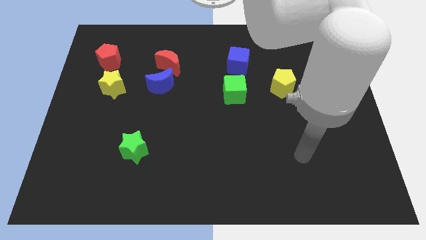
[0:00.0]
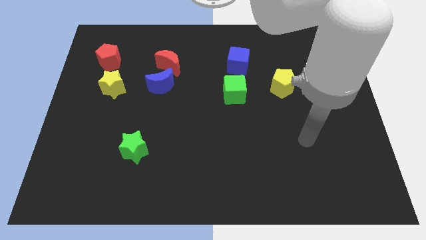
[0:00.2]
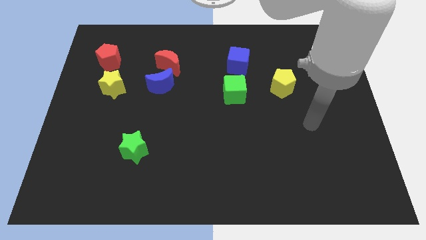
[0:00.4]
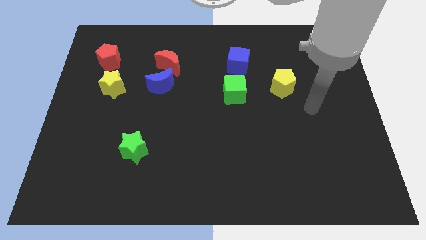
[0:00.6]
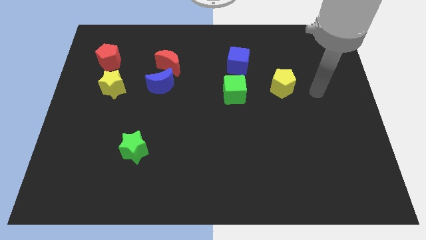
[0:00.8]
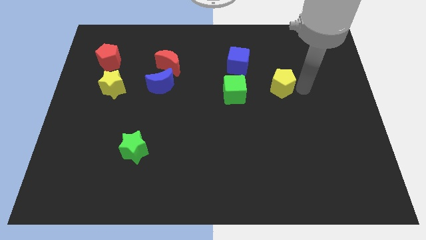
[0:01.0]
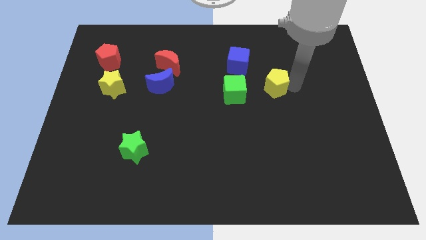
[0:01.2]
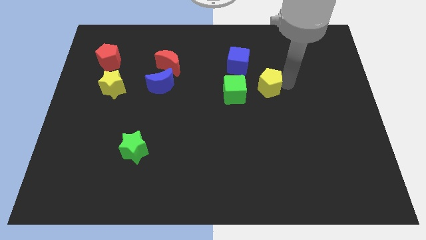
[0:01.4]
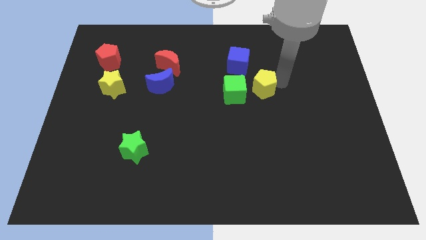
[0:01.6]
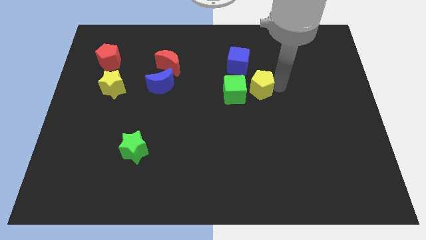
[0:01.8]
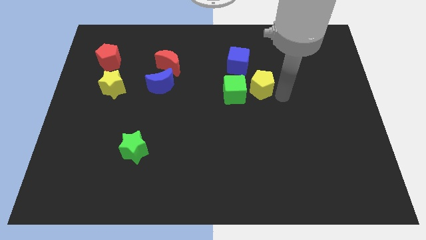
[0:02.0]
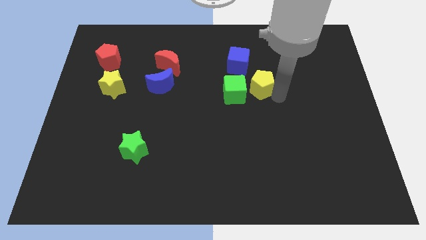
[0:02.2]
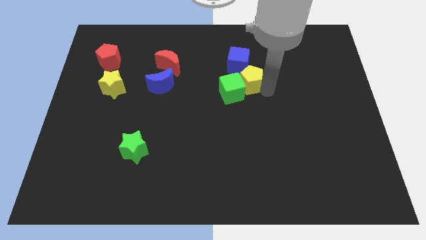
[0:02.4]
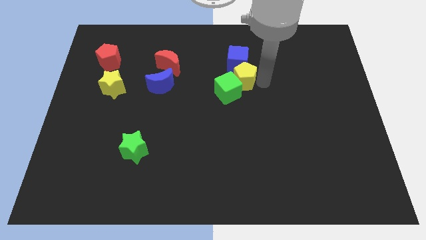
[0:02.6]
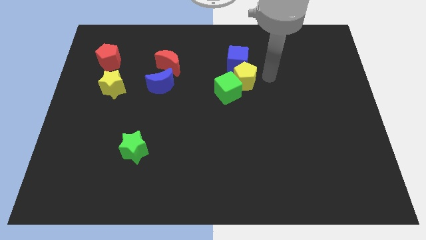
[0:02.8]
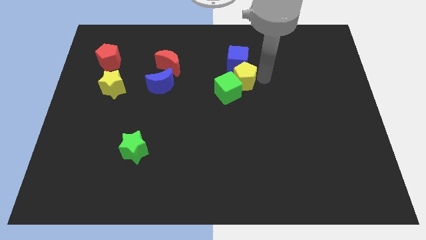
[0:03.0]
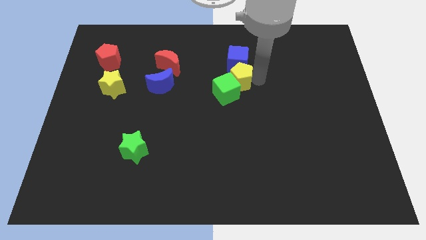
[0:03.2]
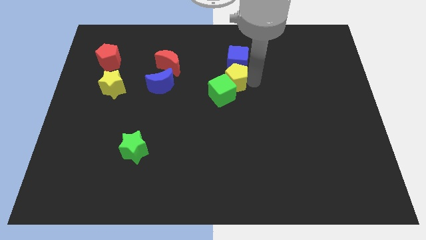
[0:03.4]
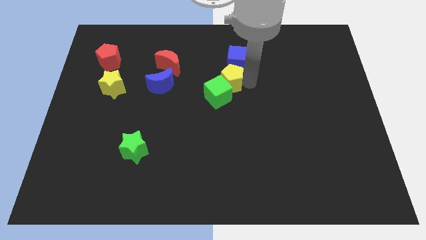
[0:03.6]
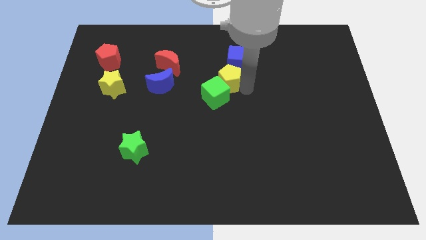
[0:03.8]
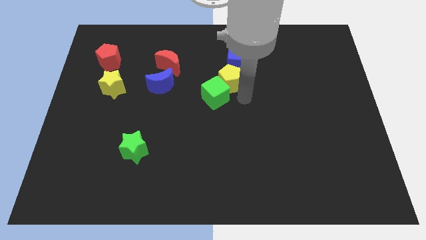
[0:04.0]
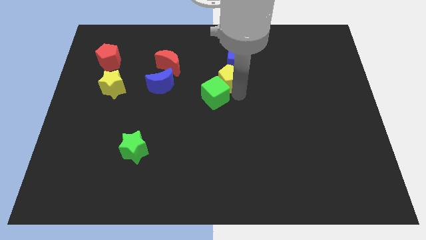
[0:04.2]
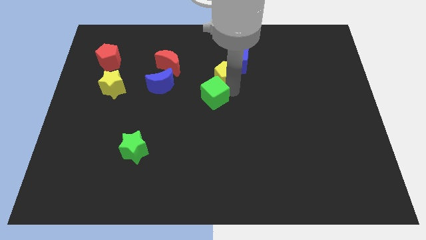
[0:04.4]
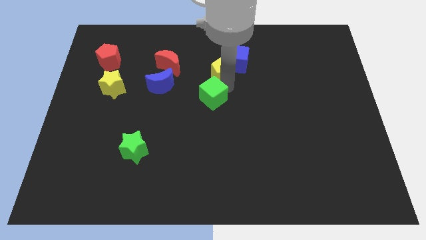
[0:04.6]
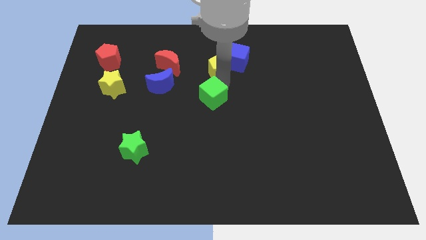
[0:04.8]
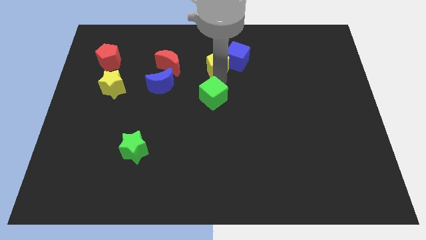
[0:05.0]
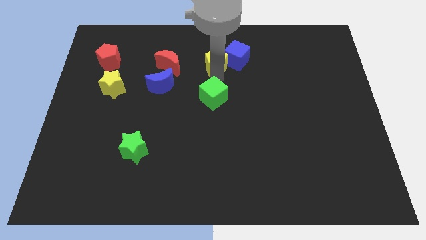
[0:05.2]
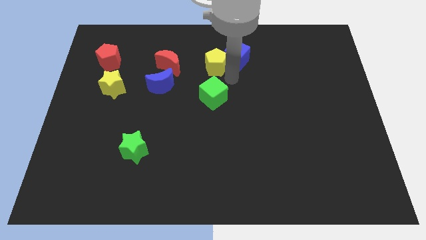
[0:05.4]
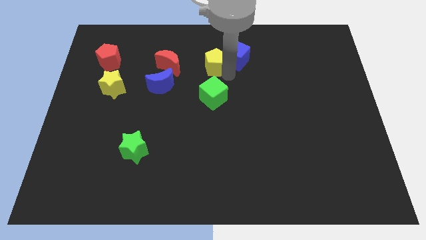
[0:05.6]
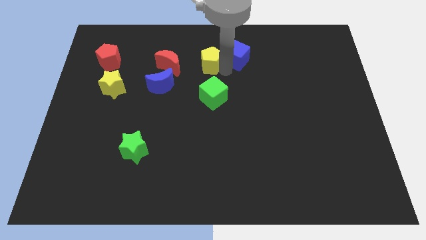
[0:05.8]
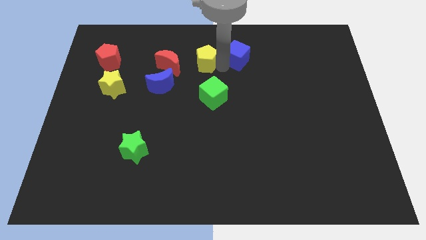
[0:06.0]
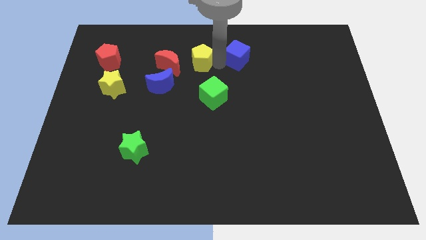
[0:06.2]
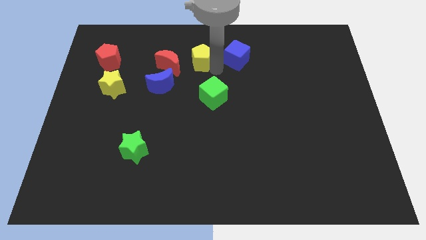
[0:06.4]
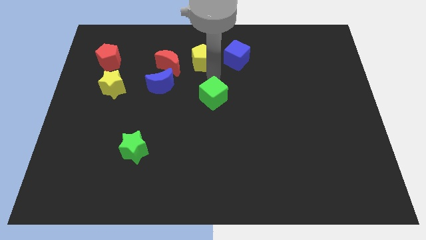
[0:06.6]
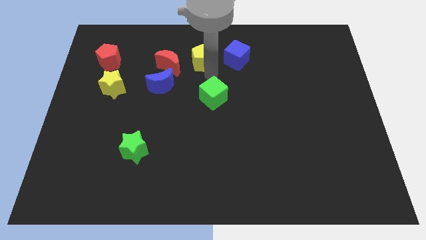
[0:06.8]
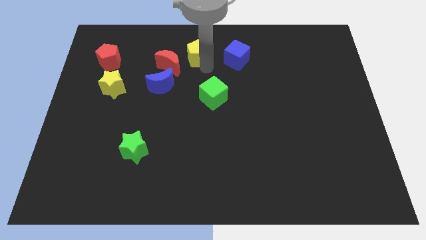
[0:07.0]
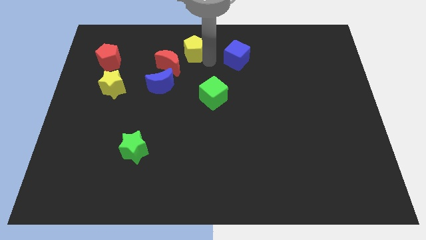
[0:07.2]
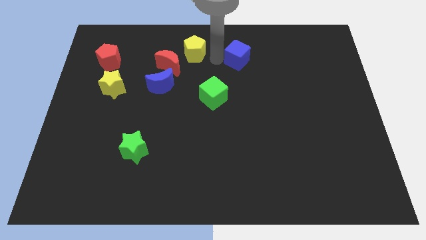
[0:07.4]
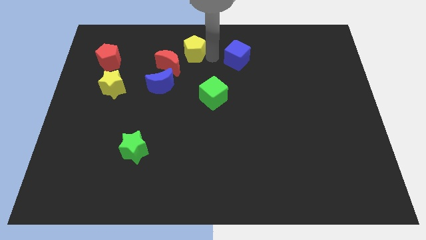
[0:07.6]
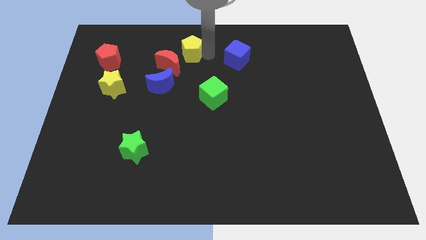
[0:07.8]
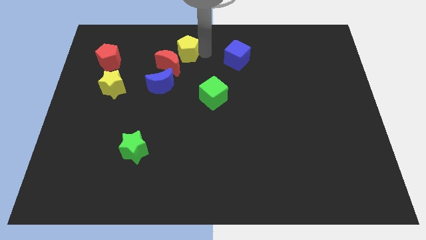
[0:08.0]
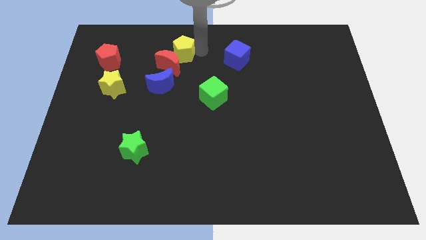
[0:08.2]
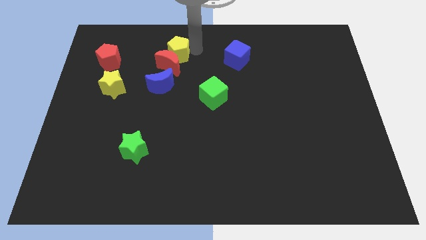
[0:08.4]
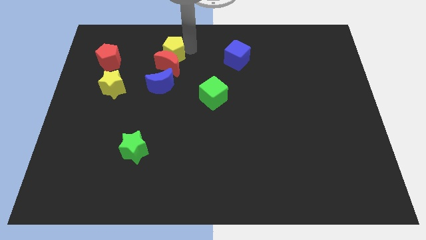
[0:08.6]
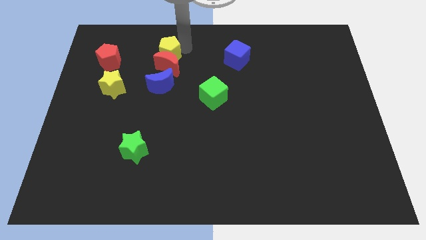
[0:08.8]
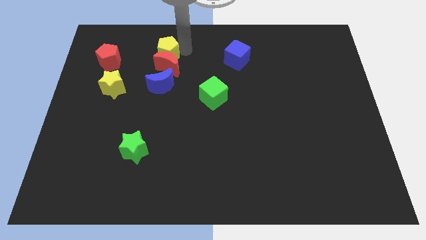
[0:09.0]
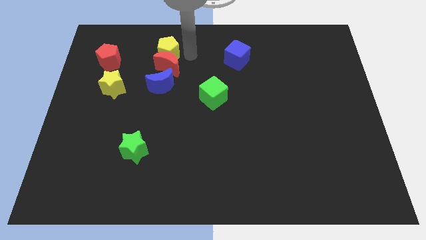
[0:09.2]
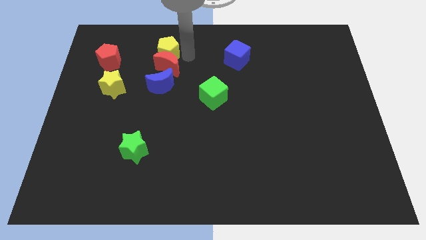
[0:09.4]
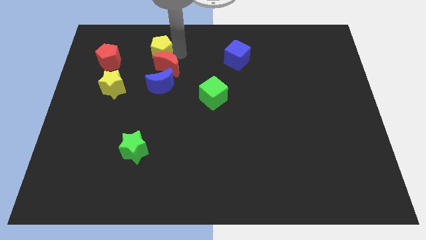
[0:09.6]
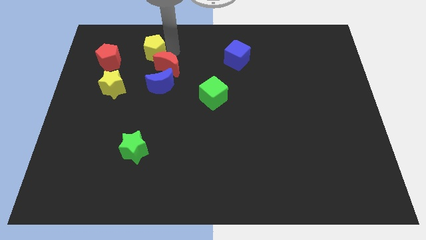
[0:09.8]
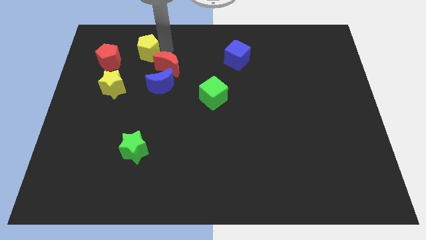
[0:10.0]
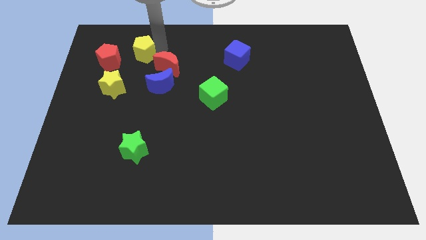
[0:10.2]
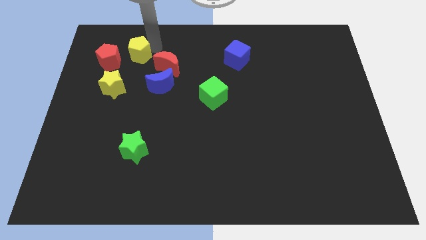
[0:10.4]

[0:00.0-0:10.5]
push the yellow pentagon above the yellow star

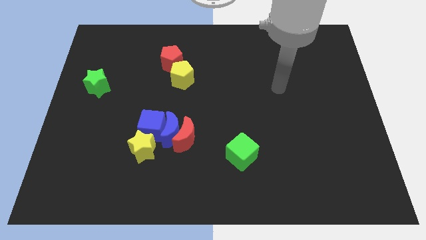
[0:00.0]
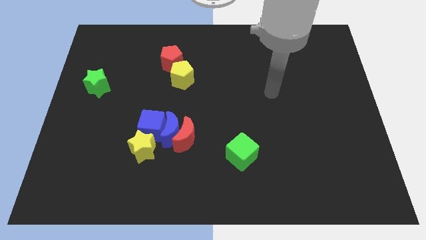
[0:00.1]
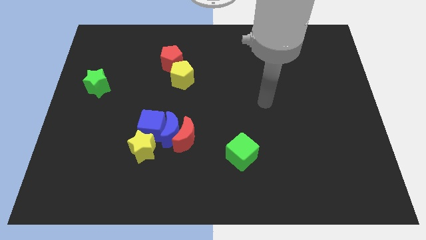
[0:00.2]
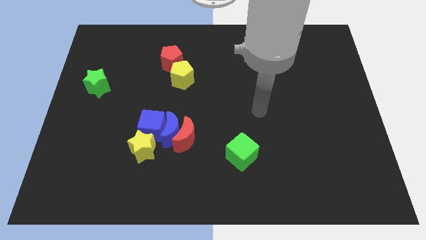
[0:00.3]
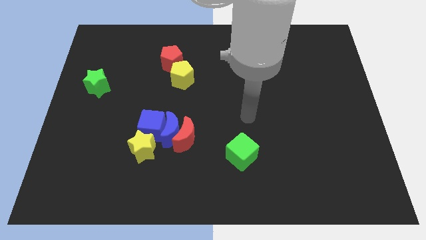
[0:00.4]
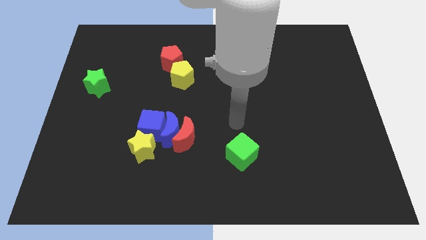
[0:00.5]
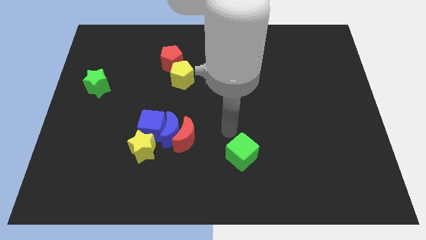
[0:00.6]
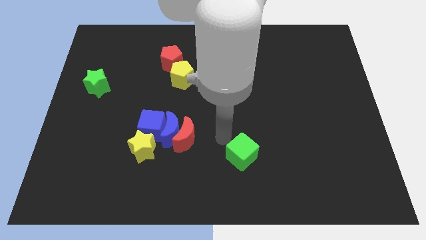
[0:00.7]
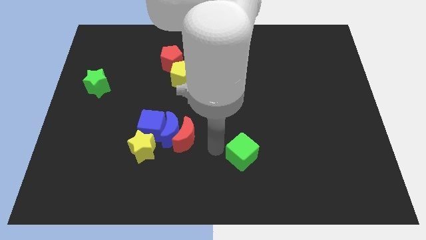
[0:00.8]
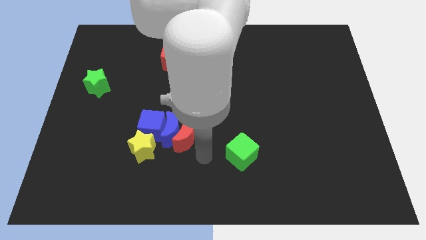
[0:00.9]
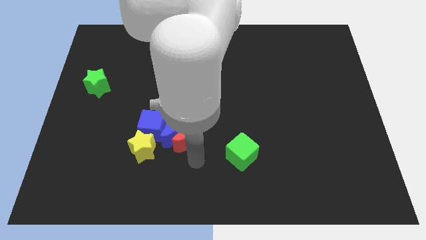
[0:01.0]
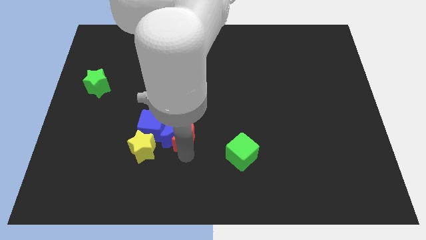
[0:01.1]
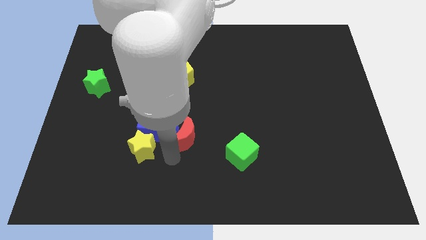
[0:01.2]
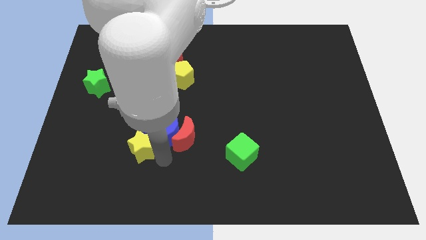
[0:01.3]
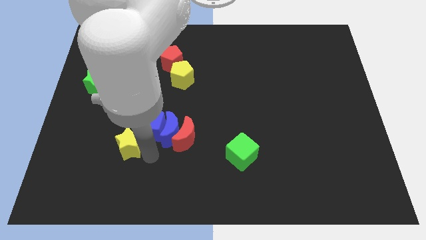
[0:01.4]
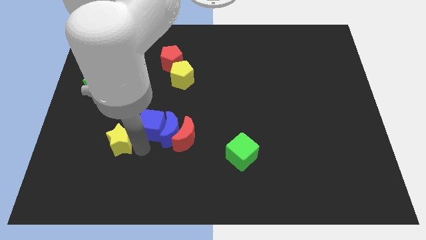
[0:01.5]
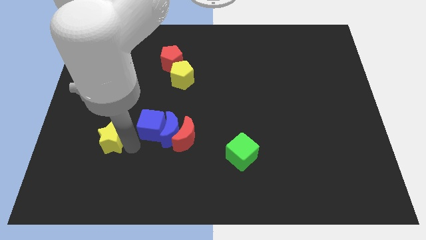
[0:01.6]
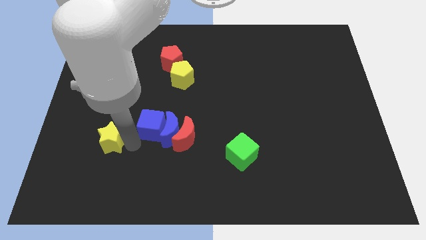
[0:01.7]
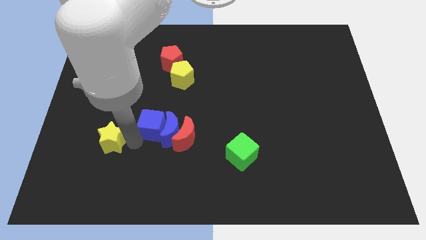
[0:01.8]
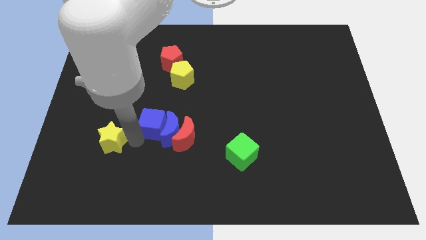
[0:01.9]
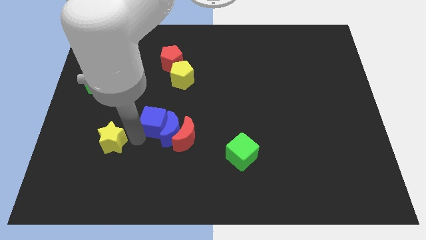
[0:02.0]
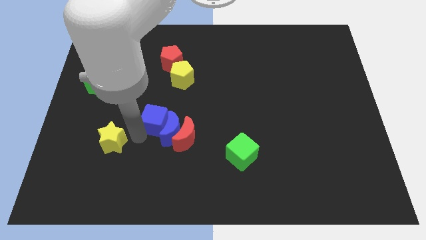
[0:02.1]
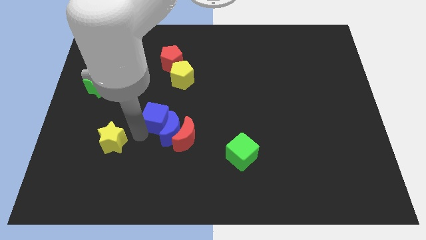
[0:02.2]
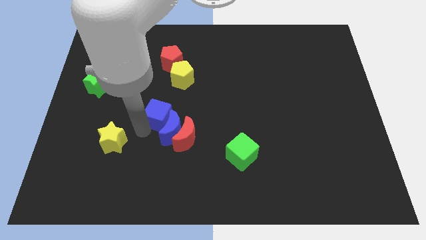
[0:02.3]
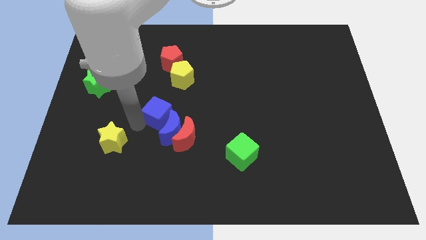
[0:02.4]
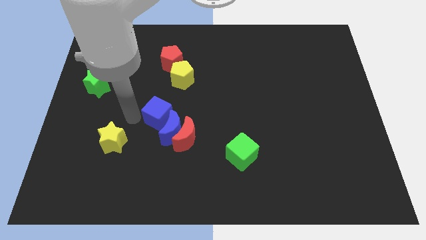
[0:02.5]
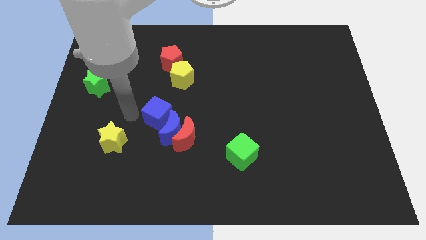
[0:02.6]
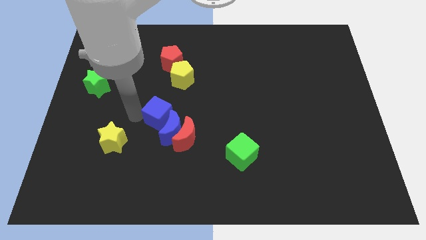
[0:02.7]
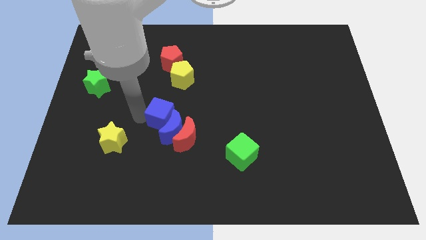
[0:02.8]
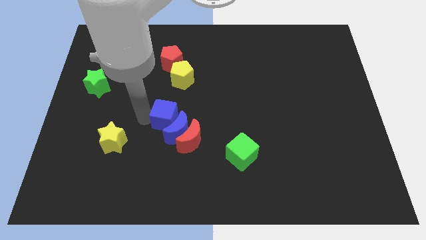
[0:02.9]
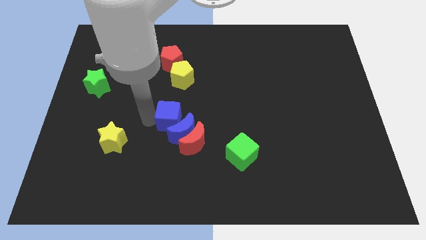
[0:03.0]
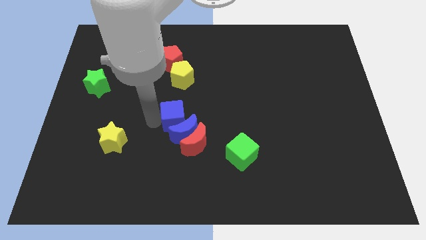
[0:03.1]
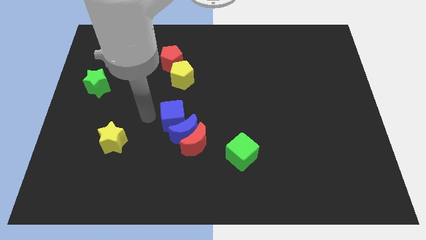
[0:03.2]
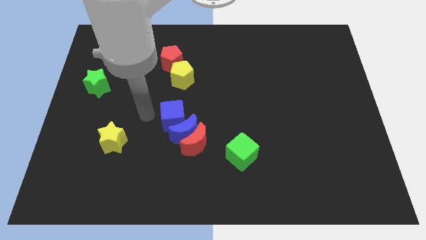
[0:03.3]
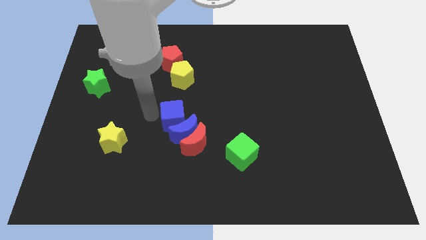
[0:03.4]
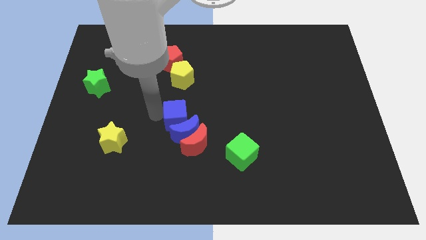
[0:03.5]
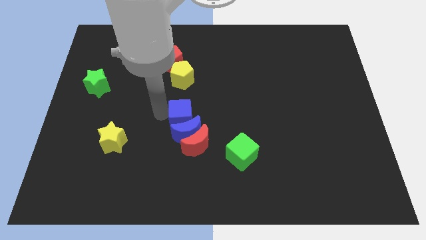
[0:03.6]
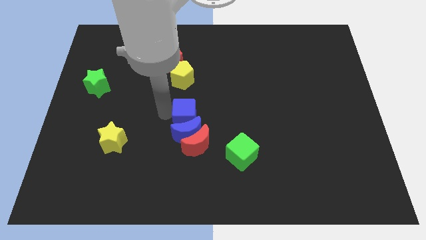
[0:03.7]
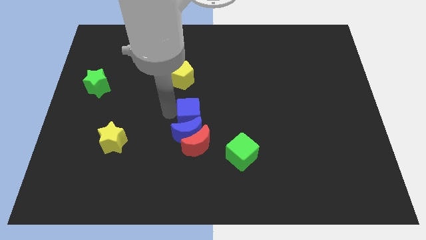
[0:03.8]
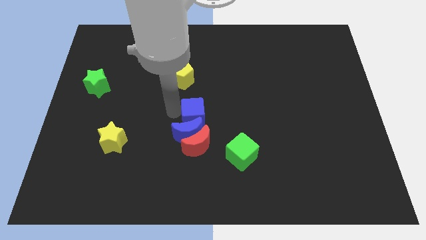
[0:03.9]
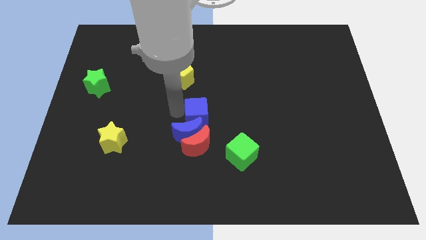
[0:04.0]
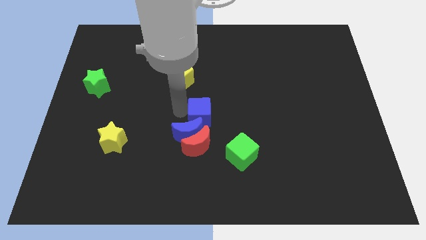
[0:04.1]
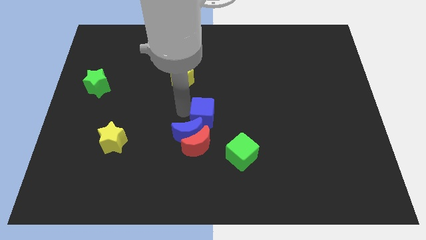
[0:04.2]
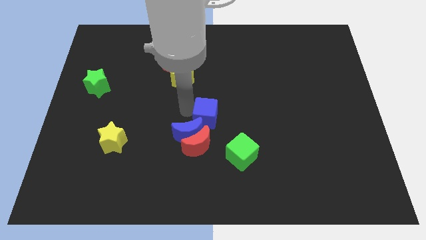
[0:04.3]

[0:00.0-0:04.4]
push the blue cube to the top right side of the red moon
